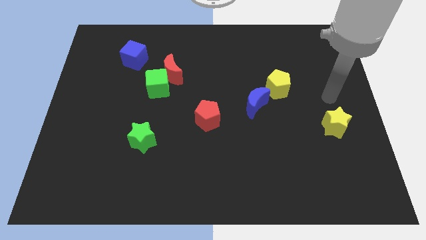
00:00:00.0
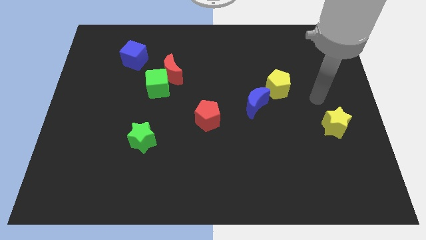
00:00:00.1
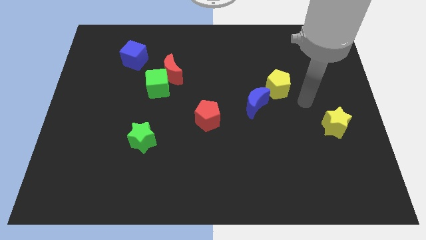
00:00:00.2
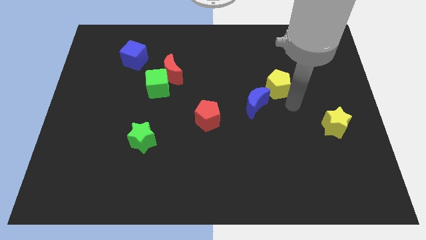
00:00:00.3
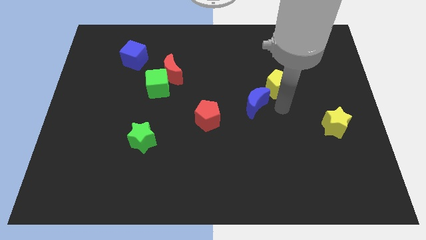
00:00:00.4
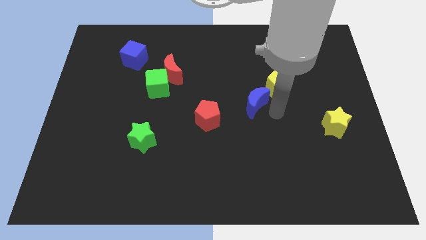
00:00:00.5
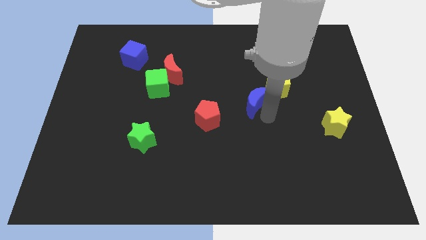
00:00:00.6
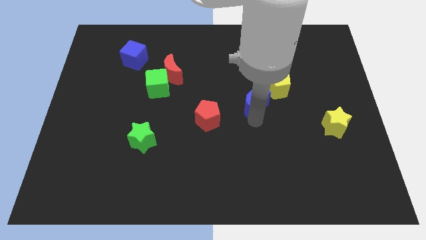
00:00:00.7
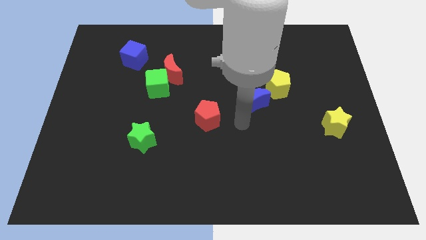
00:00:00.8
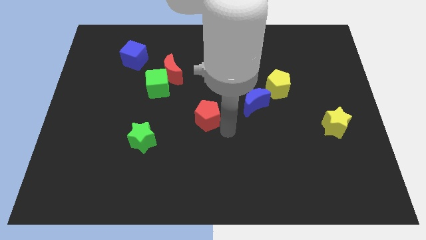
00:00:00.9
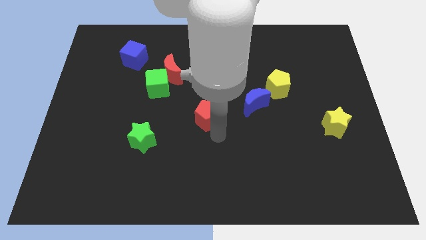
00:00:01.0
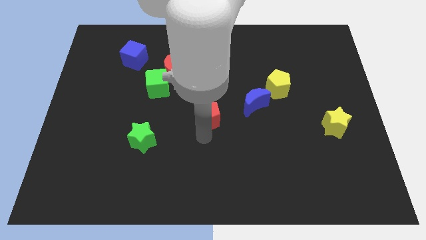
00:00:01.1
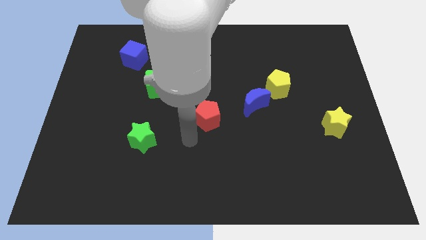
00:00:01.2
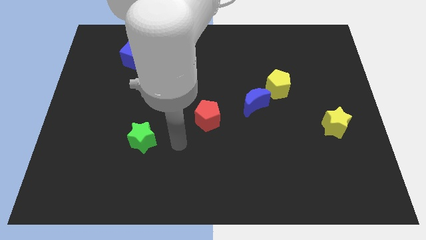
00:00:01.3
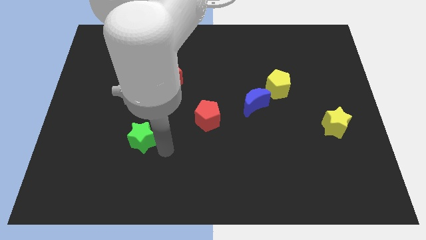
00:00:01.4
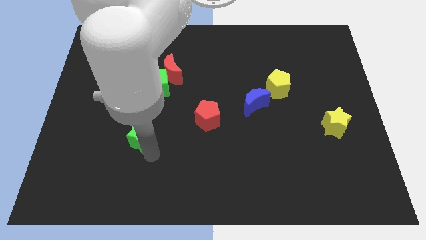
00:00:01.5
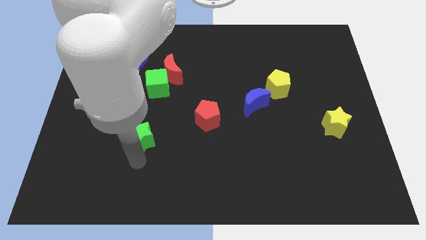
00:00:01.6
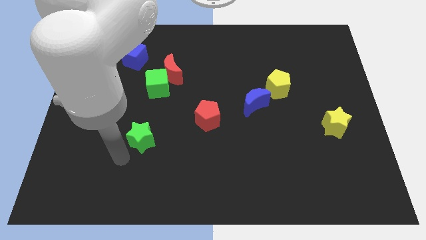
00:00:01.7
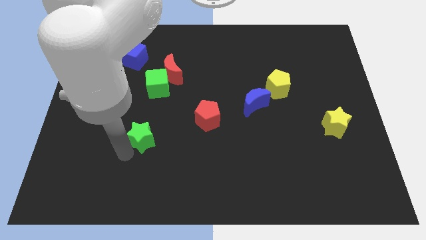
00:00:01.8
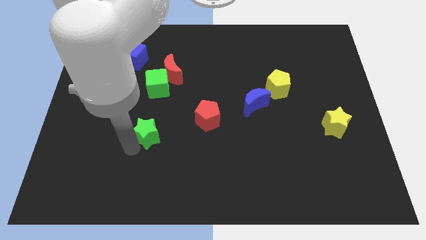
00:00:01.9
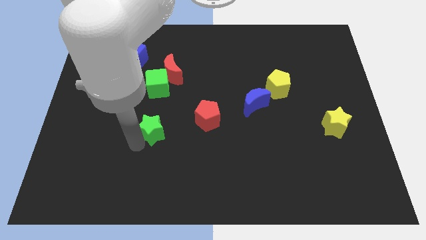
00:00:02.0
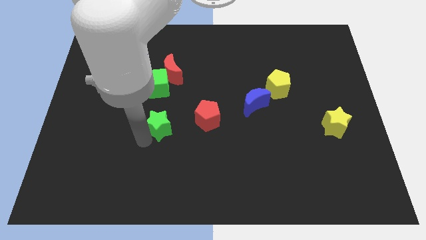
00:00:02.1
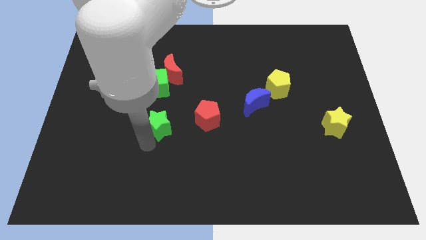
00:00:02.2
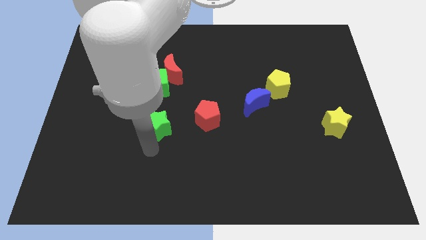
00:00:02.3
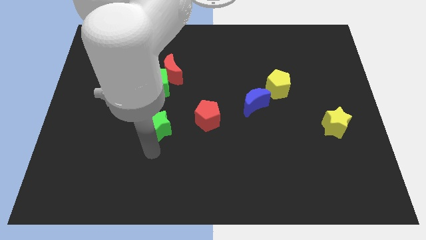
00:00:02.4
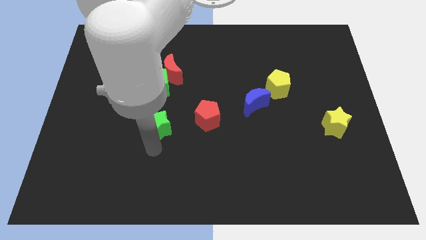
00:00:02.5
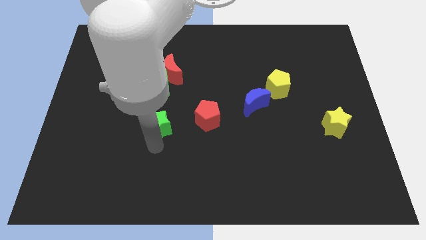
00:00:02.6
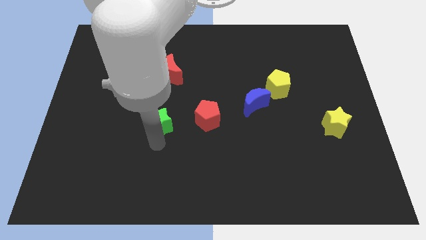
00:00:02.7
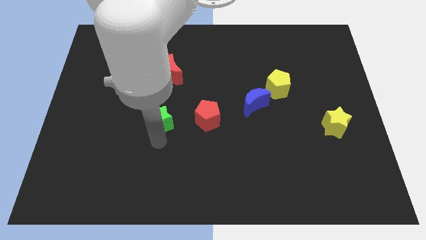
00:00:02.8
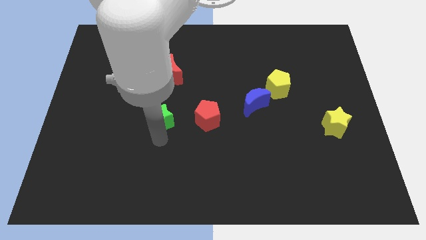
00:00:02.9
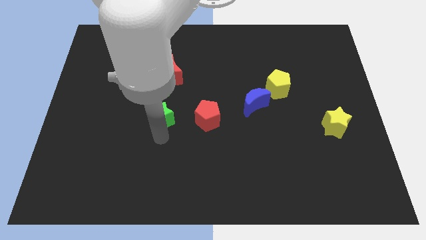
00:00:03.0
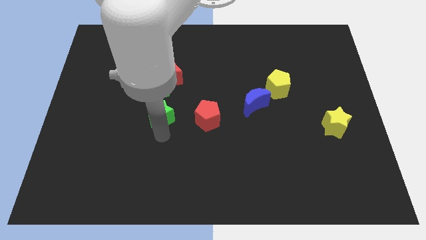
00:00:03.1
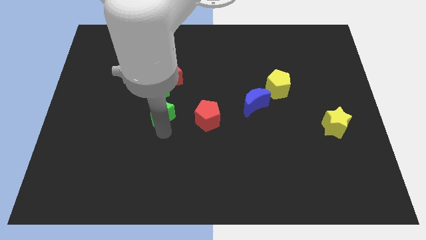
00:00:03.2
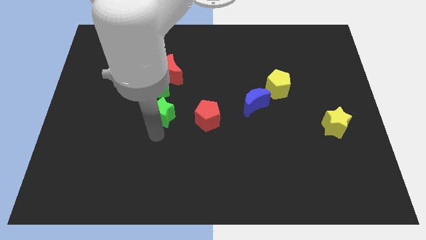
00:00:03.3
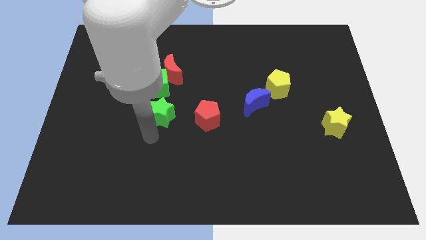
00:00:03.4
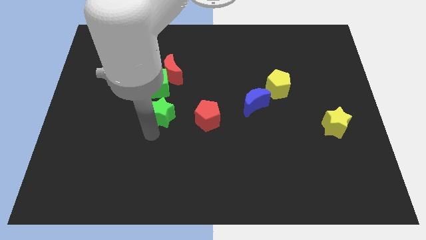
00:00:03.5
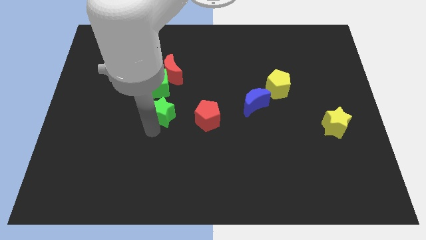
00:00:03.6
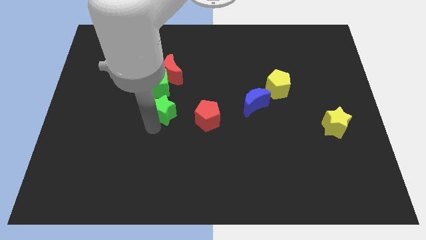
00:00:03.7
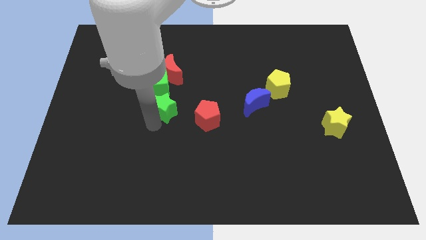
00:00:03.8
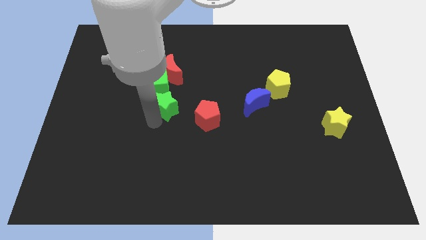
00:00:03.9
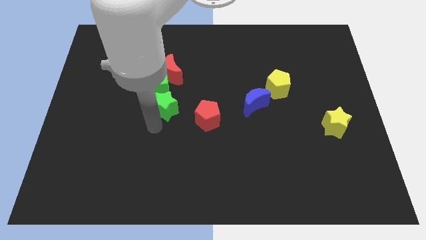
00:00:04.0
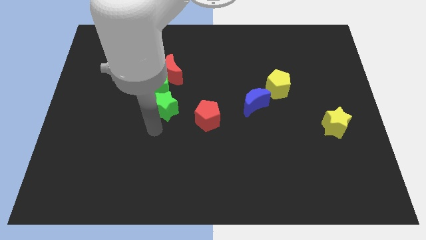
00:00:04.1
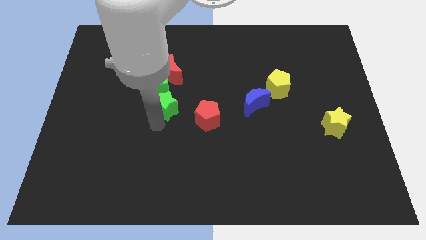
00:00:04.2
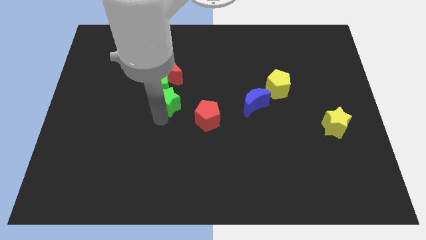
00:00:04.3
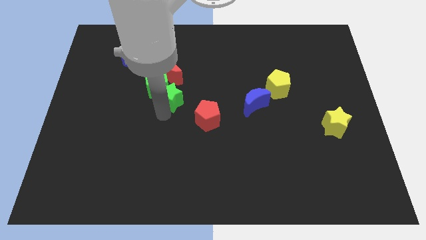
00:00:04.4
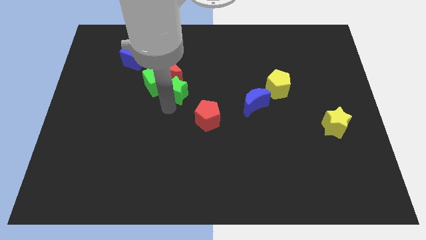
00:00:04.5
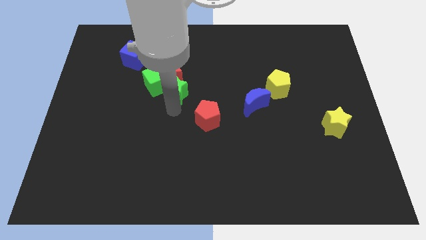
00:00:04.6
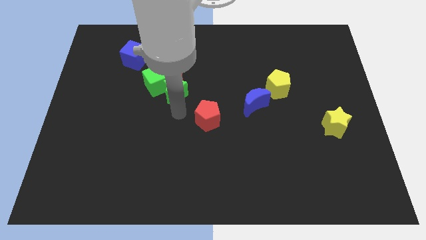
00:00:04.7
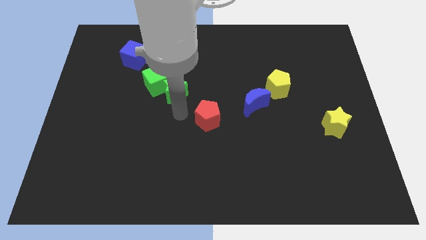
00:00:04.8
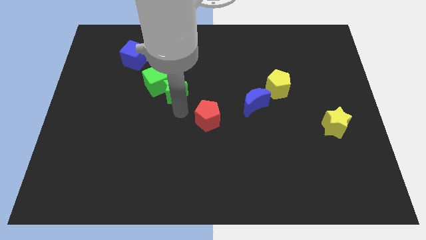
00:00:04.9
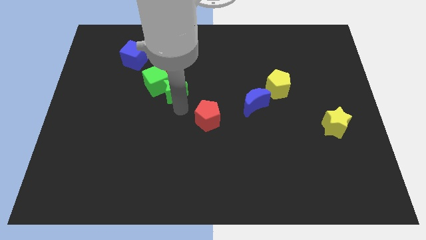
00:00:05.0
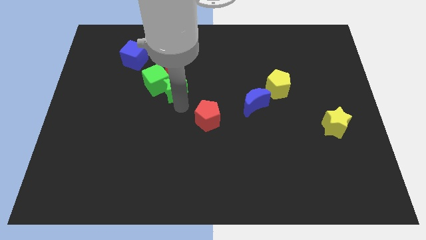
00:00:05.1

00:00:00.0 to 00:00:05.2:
move the green star to the red moon

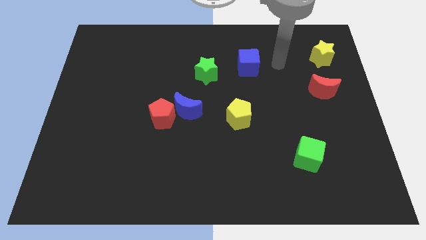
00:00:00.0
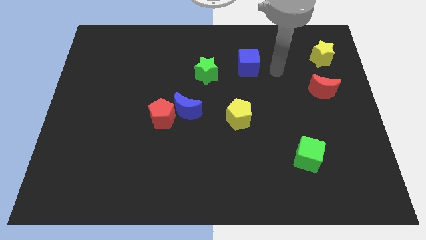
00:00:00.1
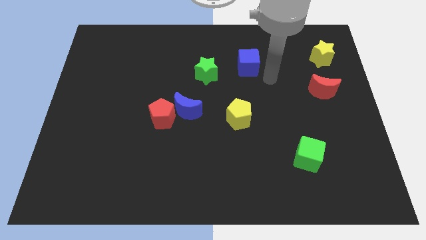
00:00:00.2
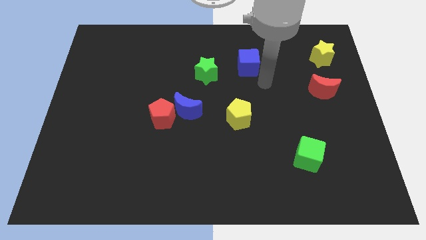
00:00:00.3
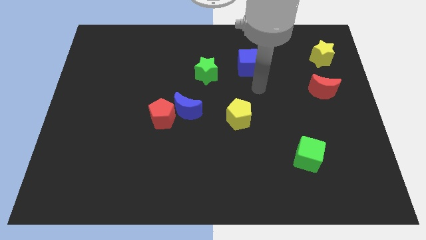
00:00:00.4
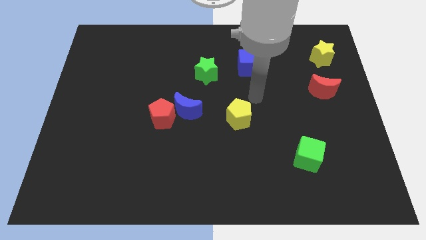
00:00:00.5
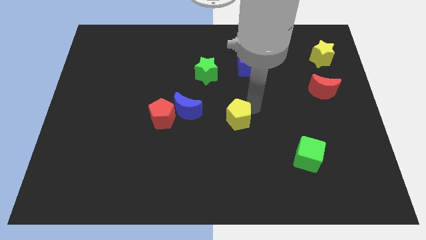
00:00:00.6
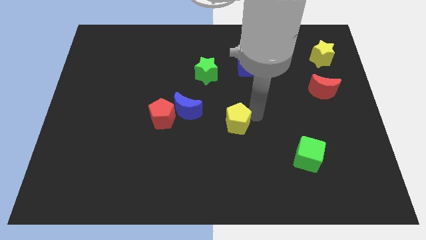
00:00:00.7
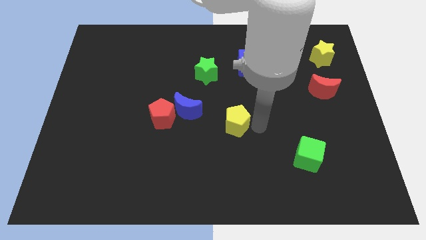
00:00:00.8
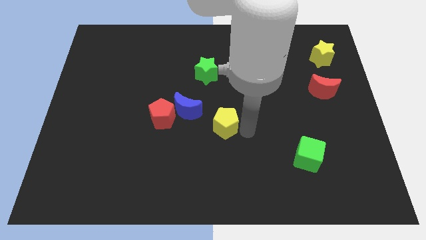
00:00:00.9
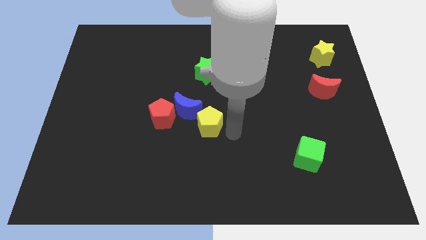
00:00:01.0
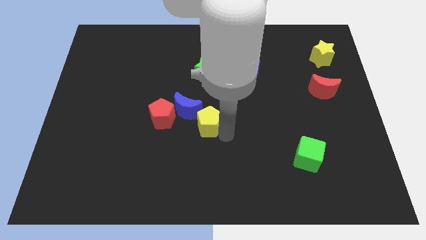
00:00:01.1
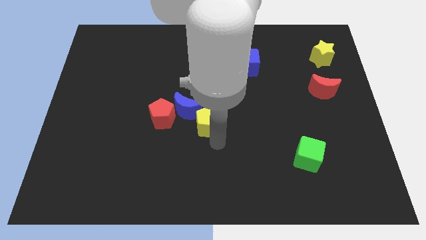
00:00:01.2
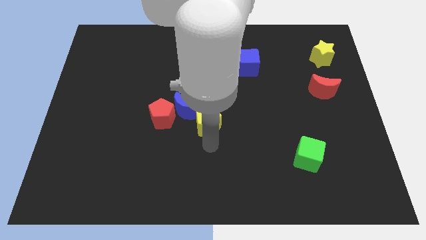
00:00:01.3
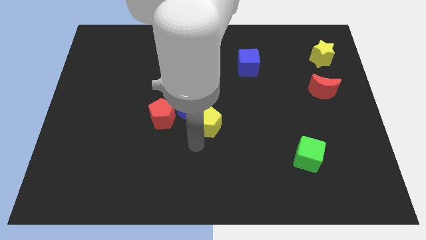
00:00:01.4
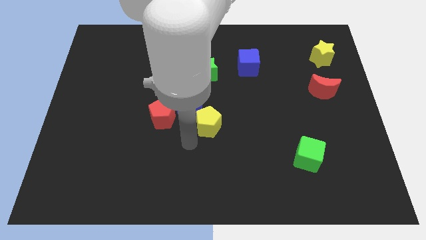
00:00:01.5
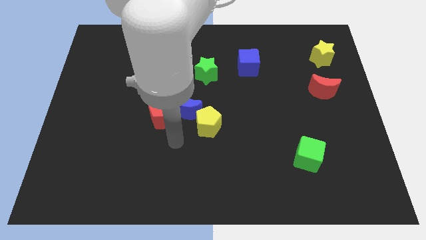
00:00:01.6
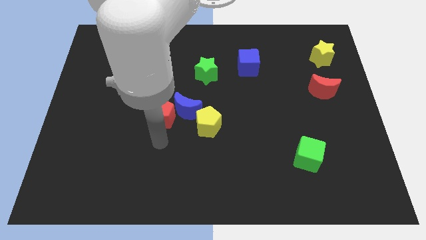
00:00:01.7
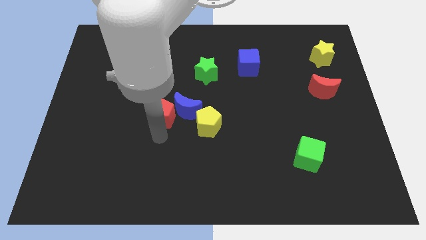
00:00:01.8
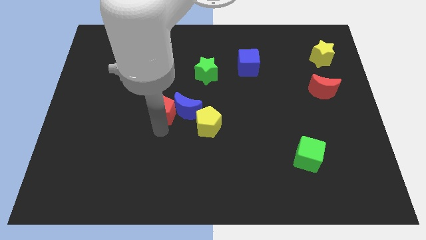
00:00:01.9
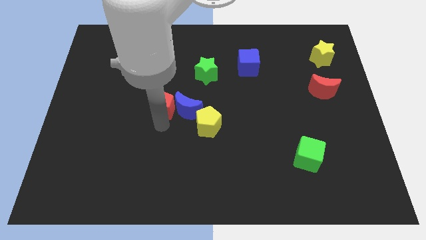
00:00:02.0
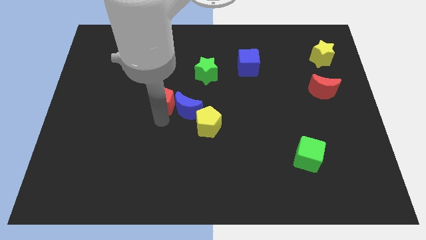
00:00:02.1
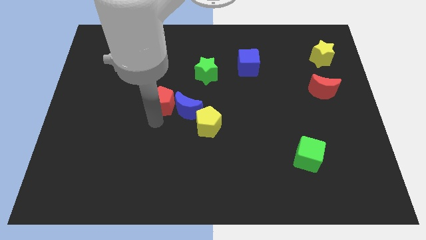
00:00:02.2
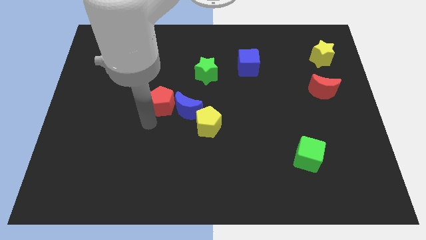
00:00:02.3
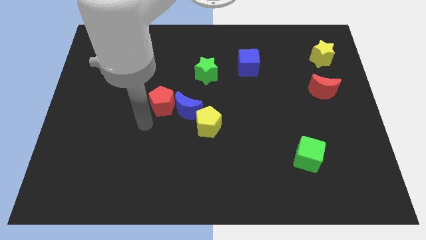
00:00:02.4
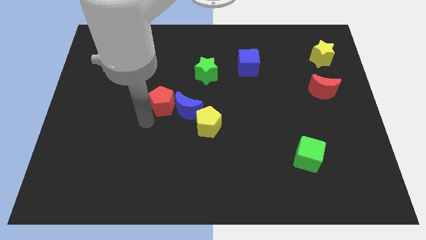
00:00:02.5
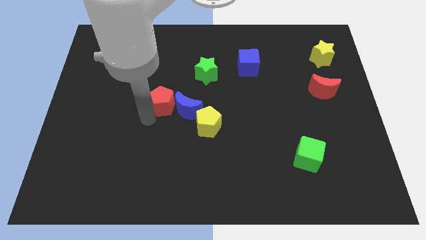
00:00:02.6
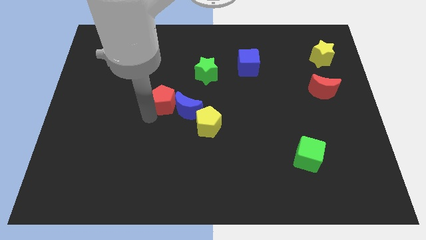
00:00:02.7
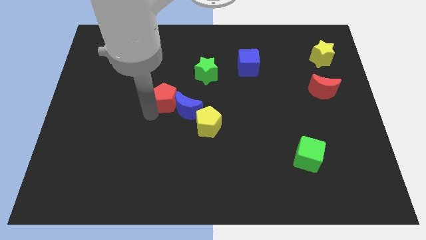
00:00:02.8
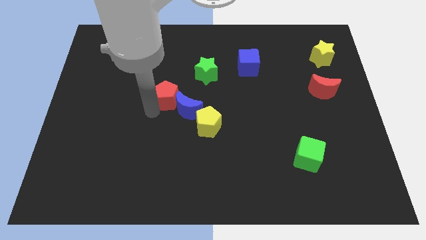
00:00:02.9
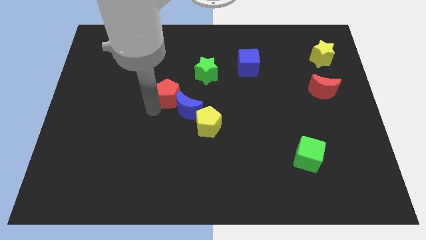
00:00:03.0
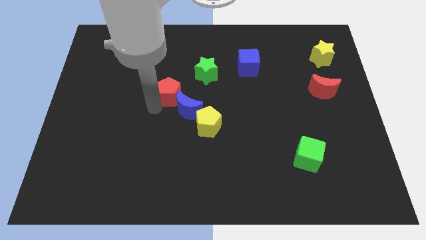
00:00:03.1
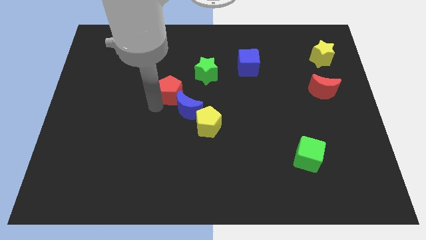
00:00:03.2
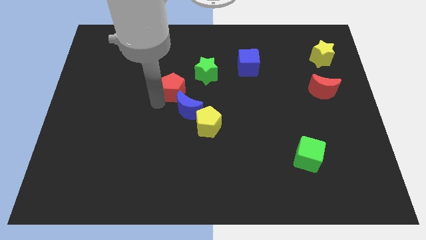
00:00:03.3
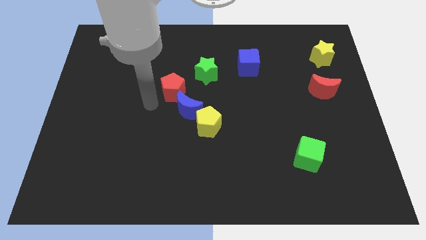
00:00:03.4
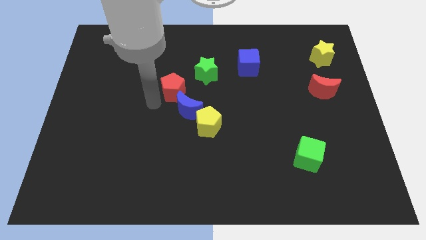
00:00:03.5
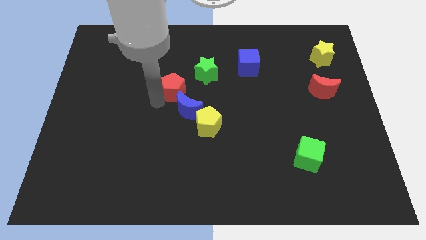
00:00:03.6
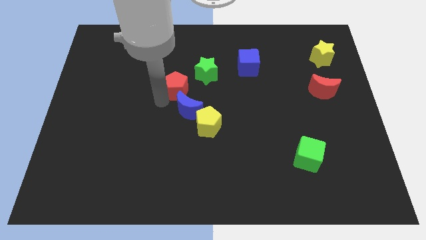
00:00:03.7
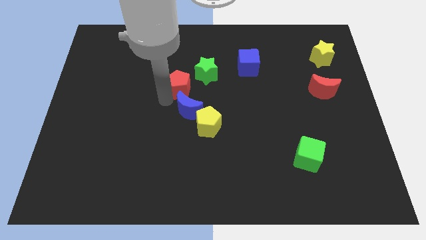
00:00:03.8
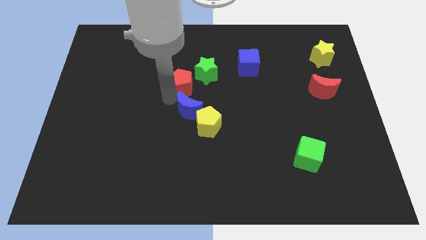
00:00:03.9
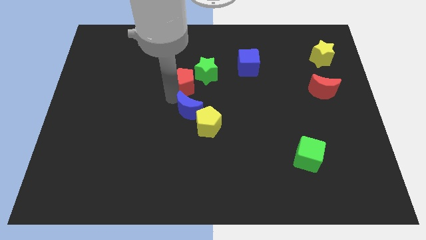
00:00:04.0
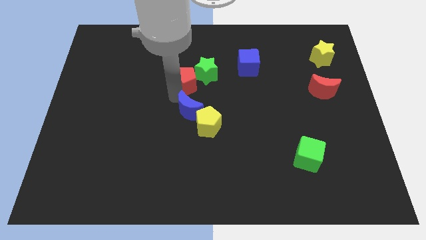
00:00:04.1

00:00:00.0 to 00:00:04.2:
slide the red pentagon next to the green star
